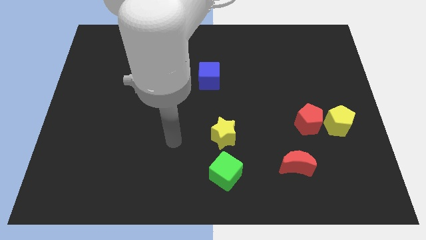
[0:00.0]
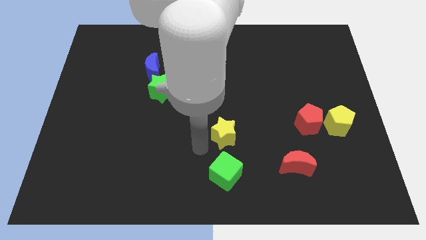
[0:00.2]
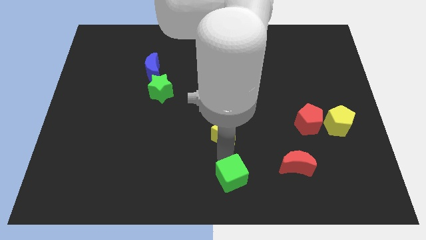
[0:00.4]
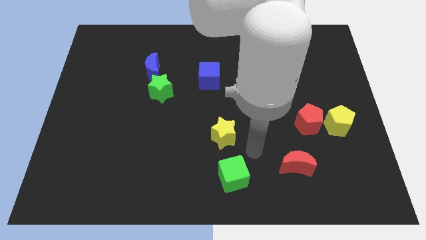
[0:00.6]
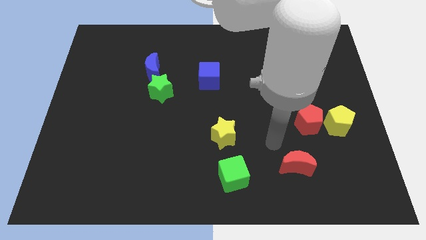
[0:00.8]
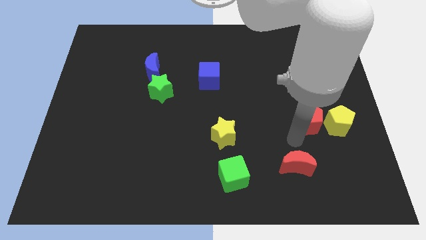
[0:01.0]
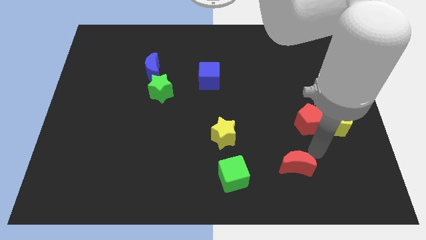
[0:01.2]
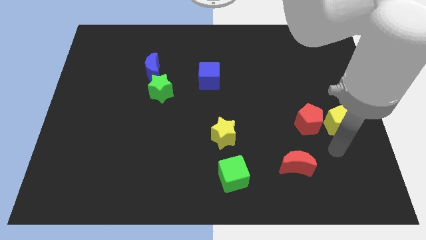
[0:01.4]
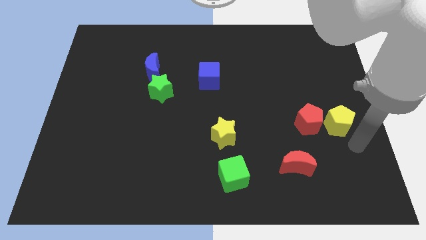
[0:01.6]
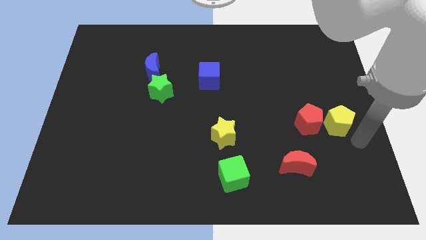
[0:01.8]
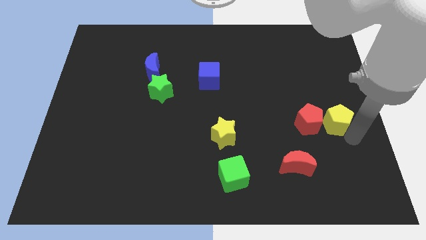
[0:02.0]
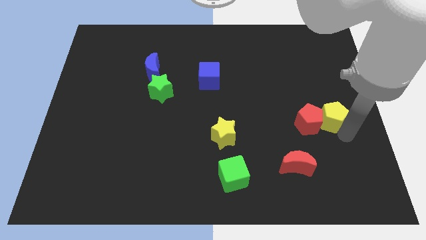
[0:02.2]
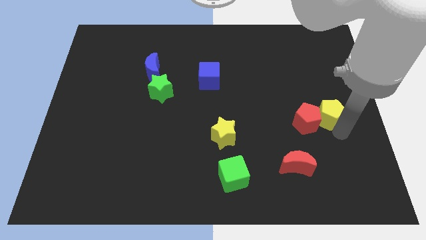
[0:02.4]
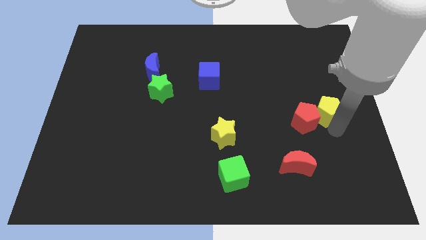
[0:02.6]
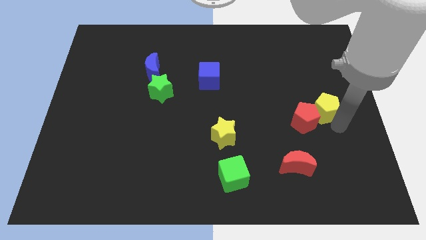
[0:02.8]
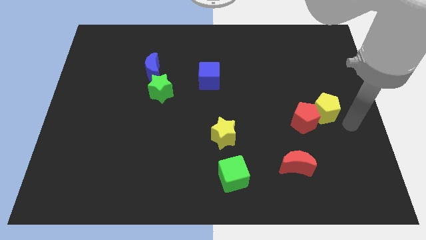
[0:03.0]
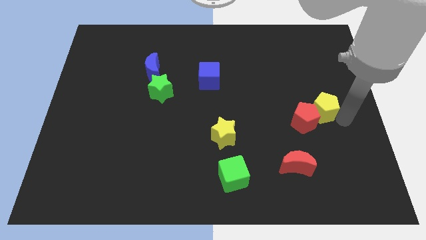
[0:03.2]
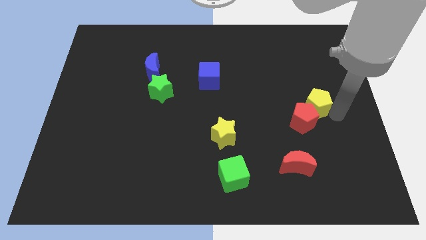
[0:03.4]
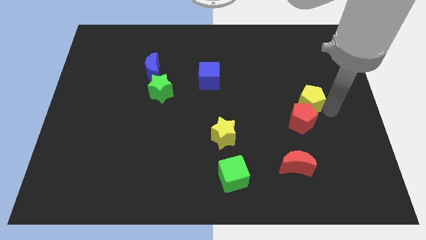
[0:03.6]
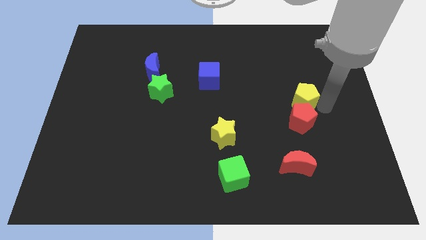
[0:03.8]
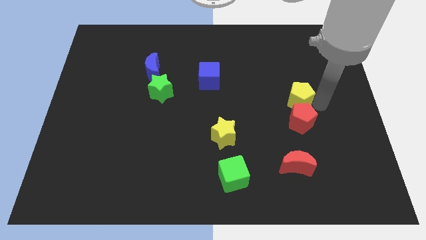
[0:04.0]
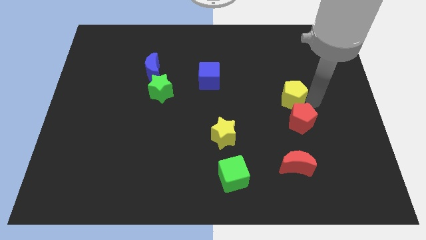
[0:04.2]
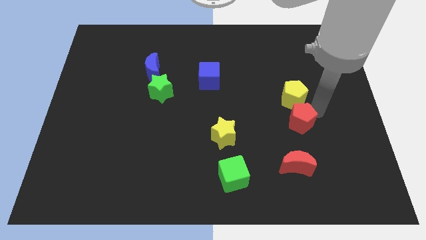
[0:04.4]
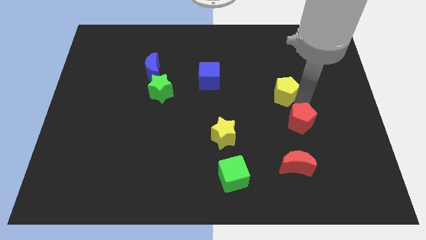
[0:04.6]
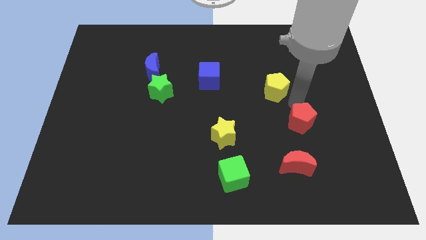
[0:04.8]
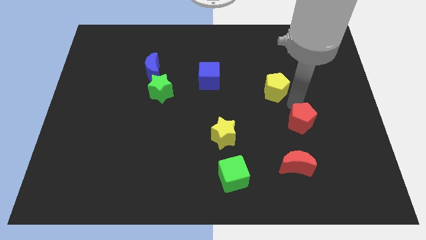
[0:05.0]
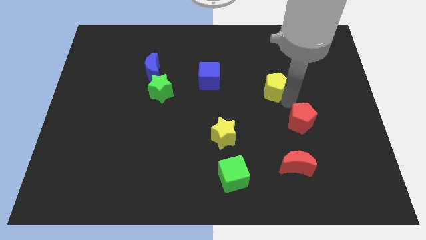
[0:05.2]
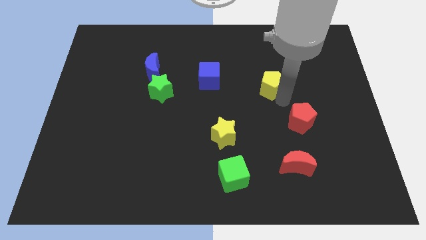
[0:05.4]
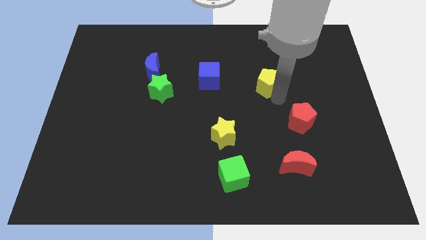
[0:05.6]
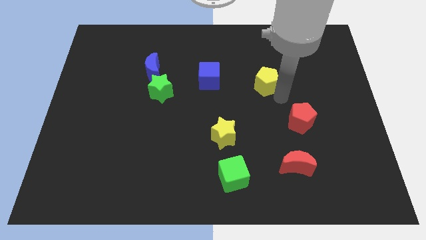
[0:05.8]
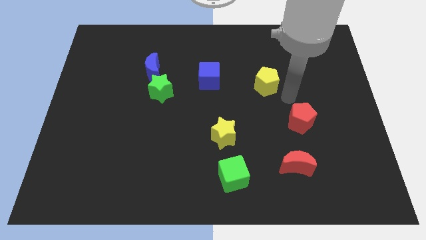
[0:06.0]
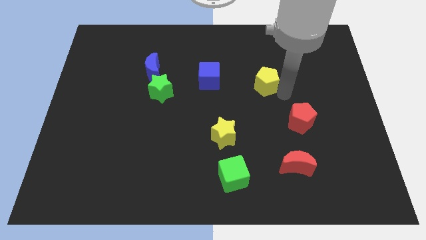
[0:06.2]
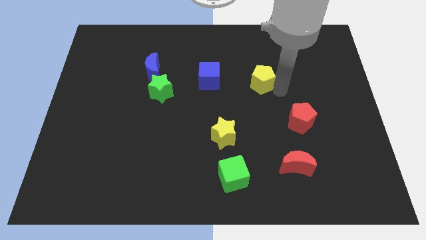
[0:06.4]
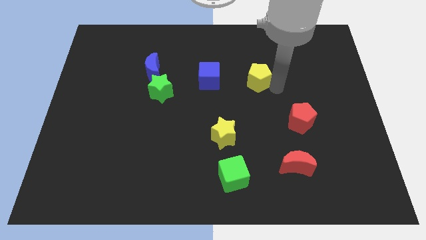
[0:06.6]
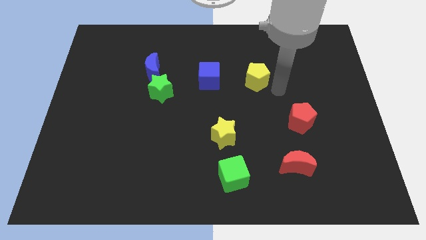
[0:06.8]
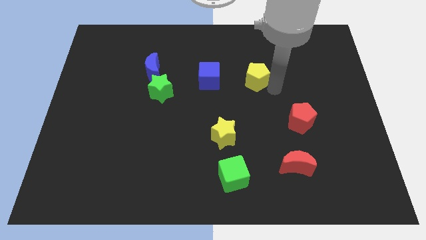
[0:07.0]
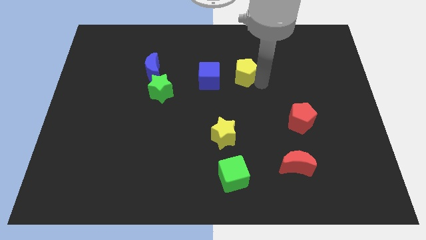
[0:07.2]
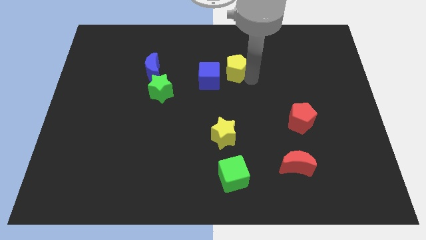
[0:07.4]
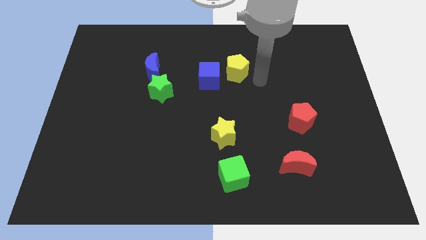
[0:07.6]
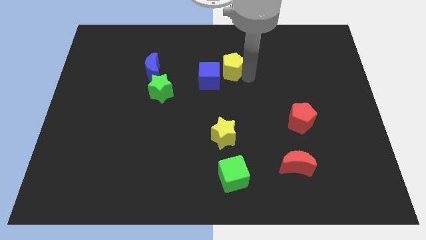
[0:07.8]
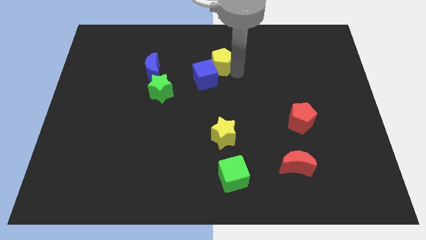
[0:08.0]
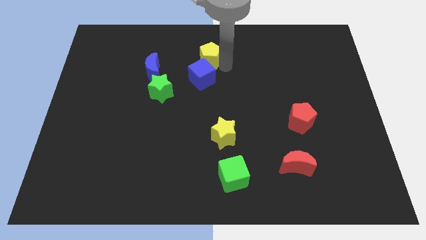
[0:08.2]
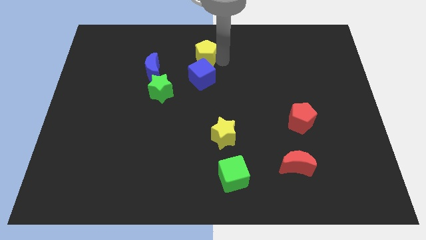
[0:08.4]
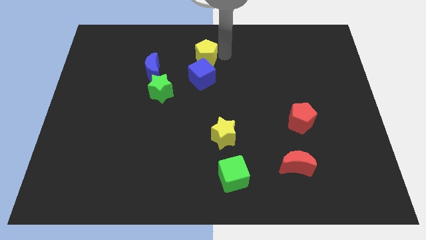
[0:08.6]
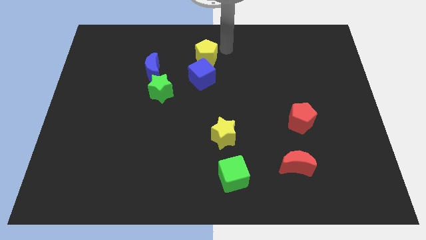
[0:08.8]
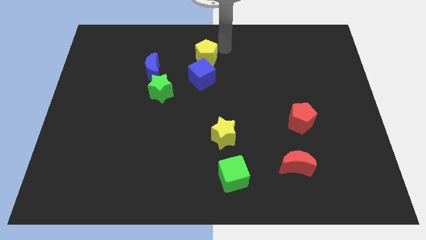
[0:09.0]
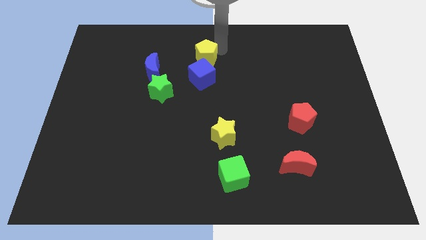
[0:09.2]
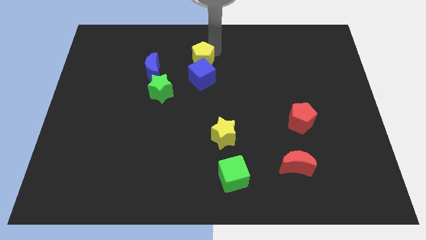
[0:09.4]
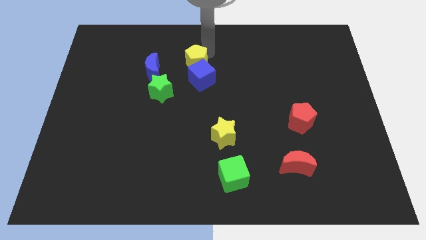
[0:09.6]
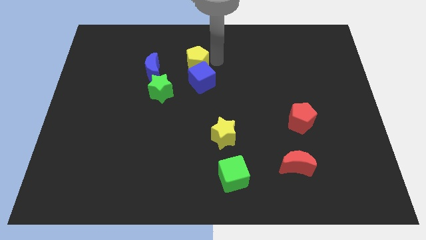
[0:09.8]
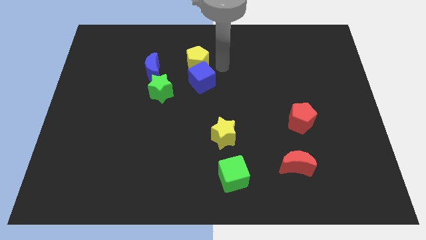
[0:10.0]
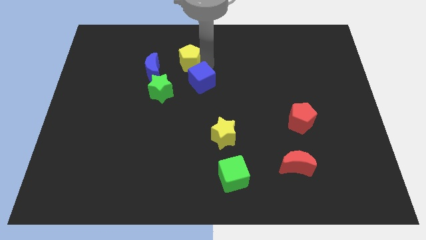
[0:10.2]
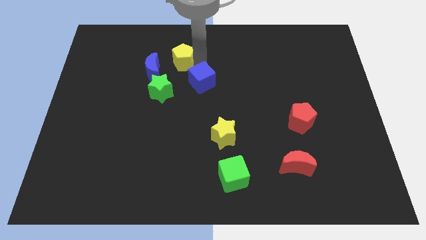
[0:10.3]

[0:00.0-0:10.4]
slide the yellow pentagon above the green star

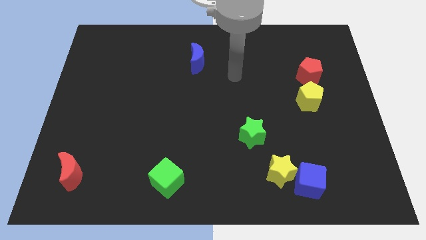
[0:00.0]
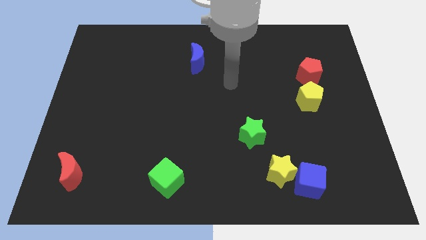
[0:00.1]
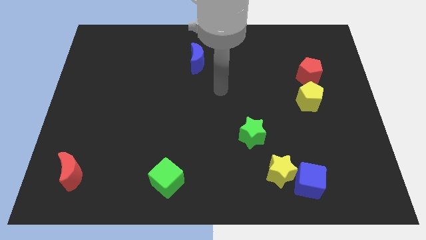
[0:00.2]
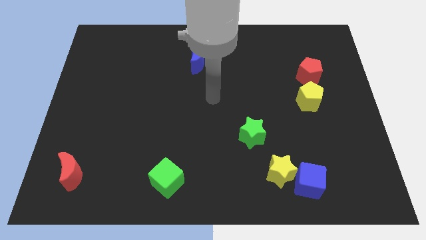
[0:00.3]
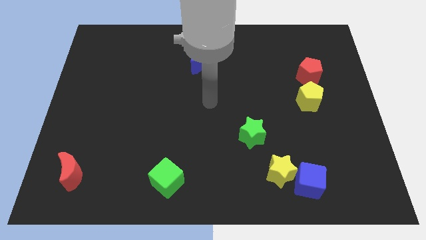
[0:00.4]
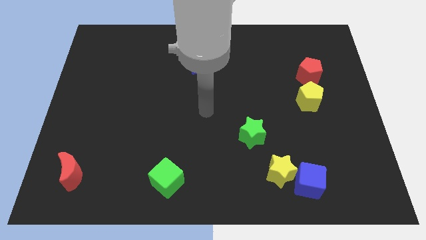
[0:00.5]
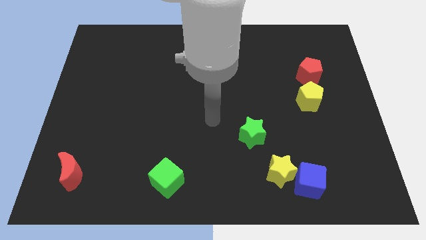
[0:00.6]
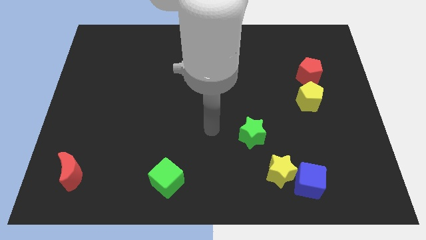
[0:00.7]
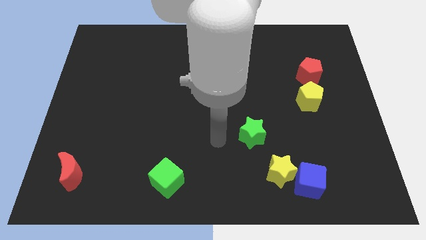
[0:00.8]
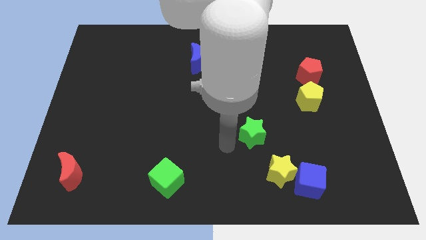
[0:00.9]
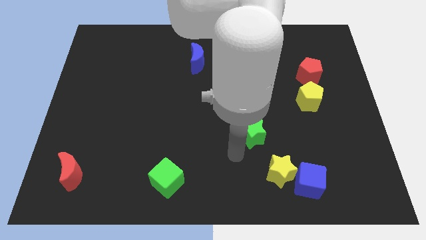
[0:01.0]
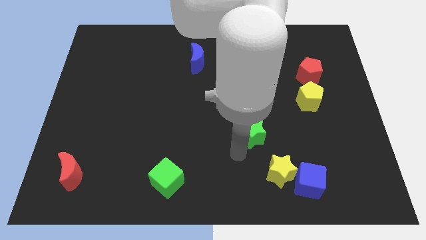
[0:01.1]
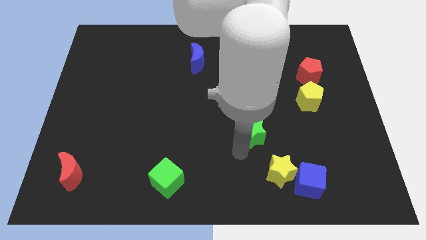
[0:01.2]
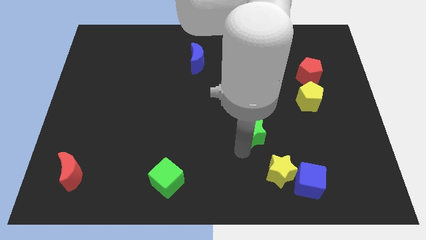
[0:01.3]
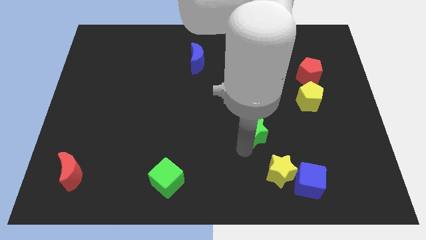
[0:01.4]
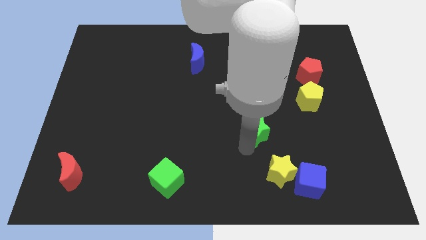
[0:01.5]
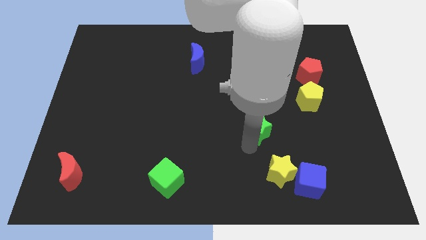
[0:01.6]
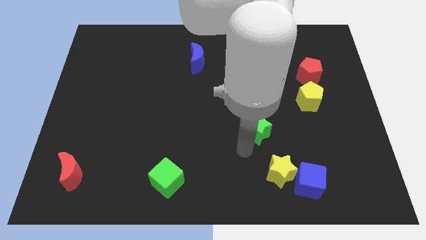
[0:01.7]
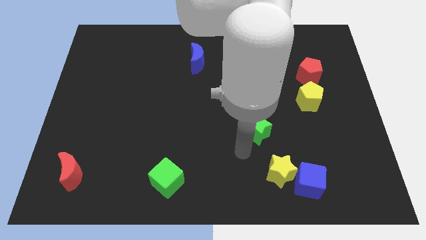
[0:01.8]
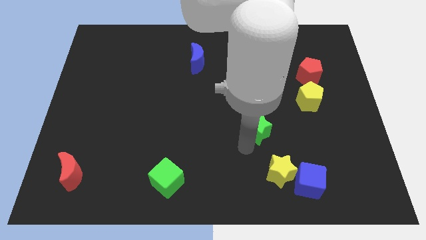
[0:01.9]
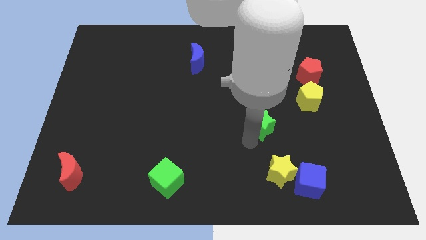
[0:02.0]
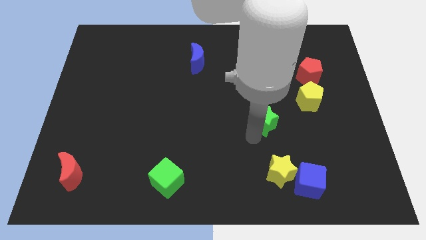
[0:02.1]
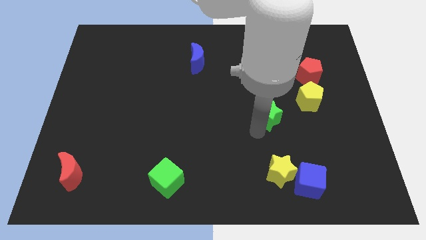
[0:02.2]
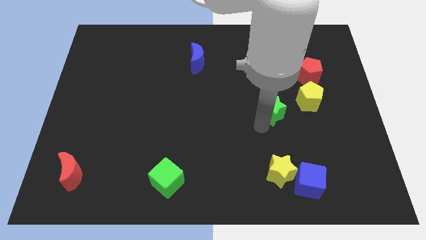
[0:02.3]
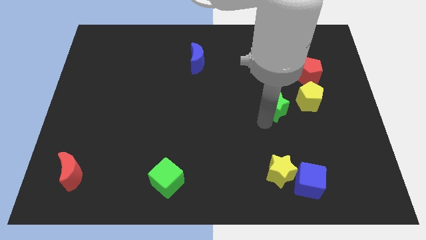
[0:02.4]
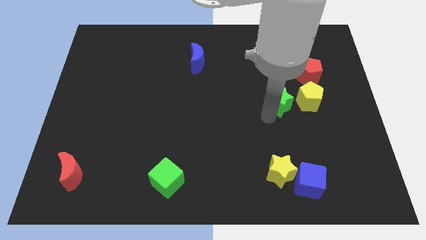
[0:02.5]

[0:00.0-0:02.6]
slide the green star to the bottom left side of the red pentagon
